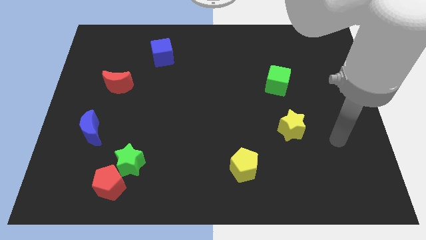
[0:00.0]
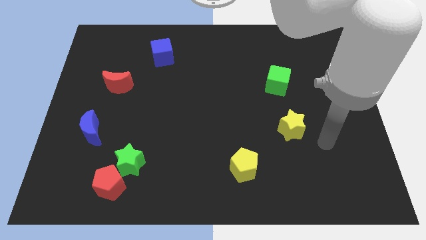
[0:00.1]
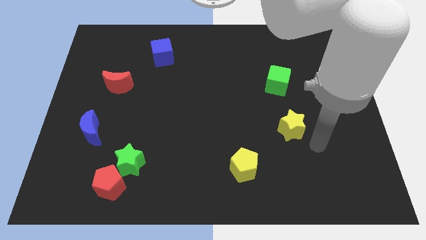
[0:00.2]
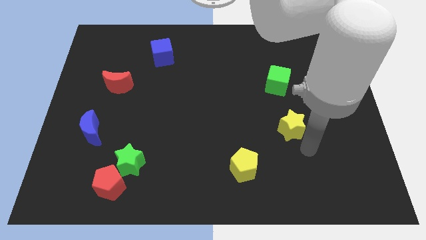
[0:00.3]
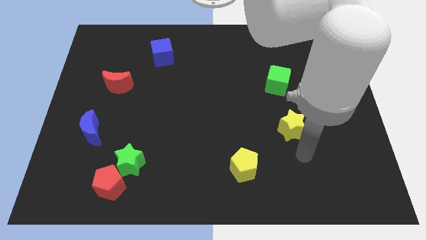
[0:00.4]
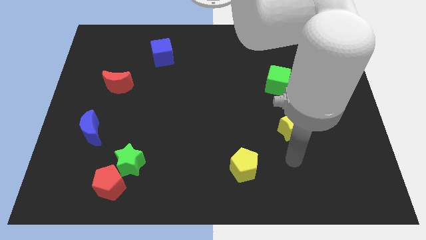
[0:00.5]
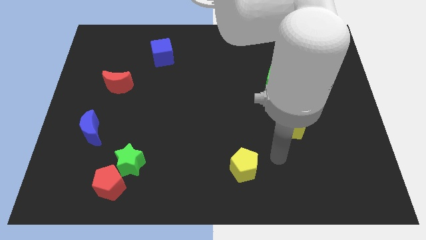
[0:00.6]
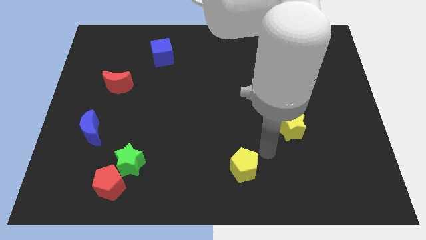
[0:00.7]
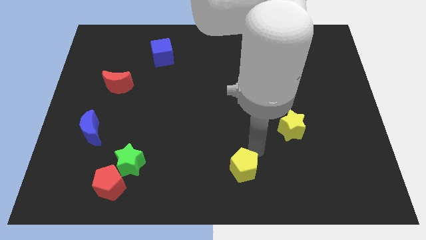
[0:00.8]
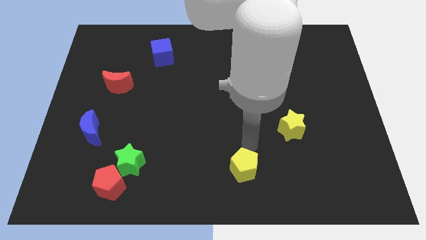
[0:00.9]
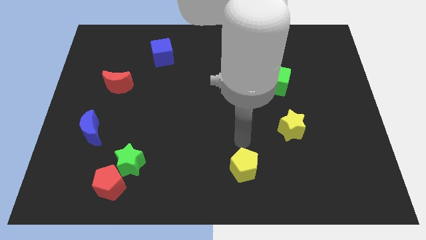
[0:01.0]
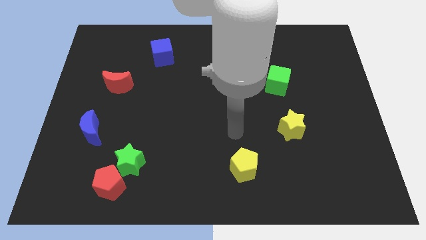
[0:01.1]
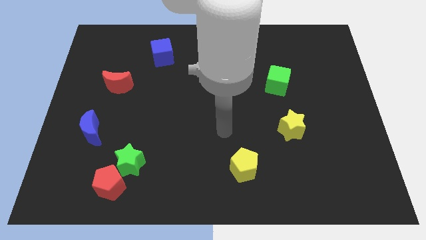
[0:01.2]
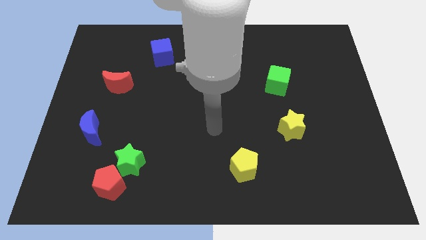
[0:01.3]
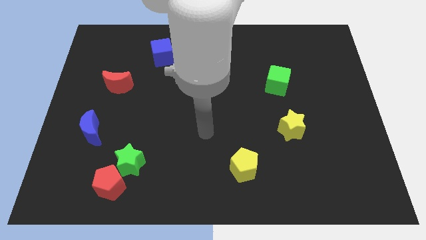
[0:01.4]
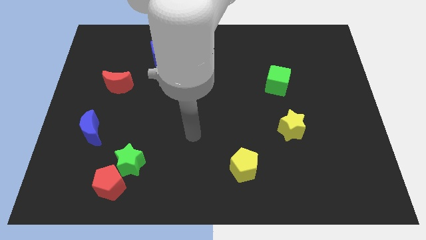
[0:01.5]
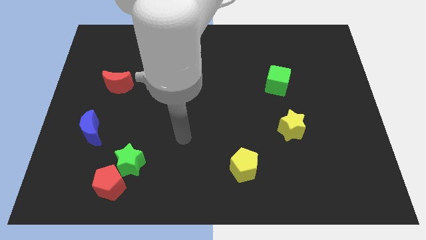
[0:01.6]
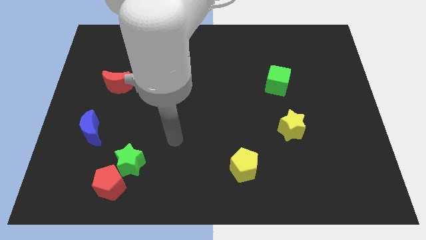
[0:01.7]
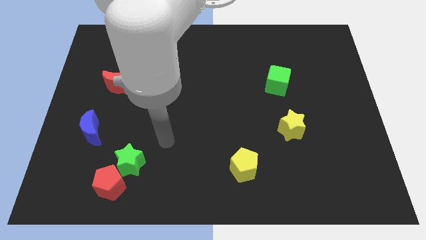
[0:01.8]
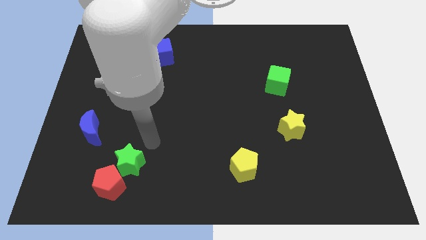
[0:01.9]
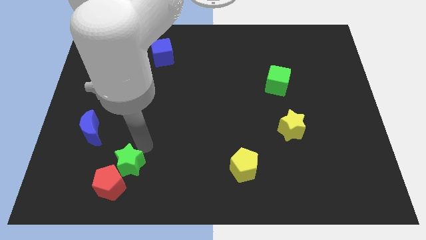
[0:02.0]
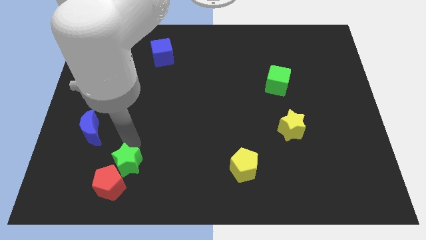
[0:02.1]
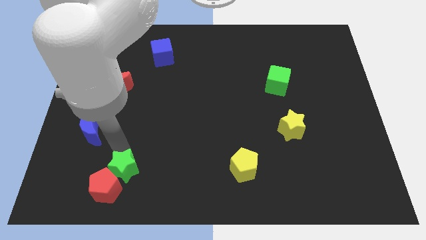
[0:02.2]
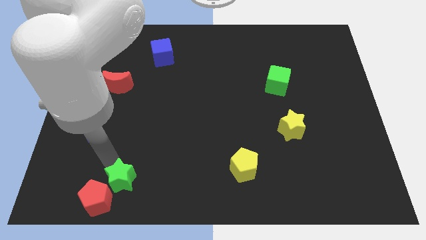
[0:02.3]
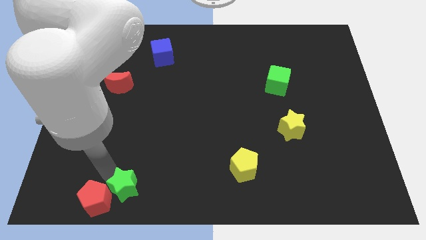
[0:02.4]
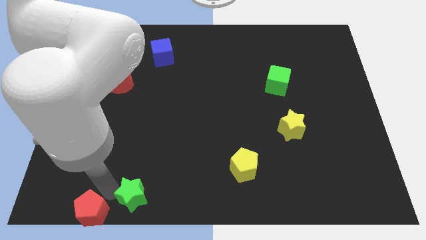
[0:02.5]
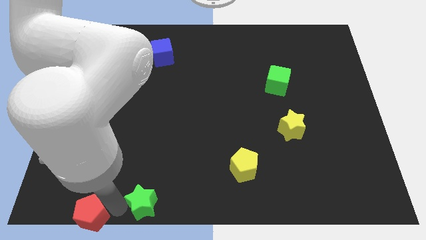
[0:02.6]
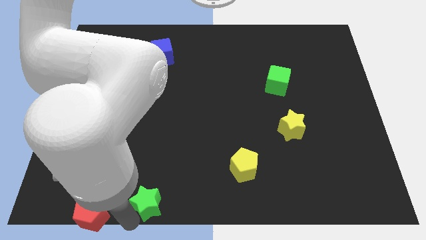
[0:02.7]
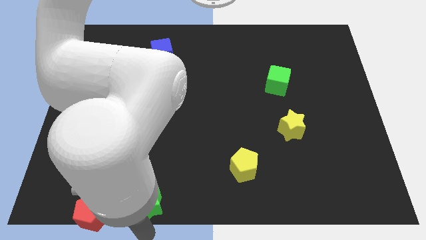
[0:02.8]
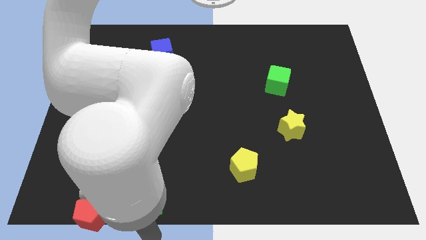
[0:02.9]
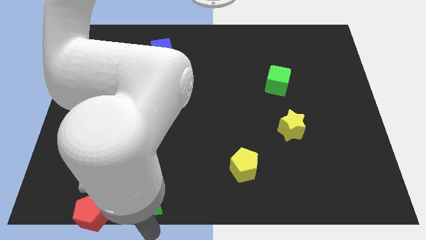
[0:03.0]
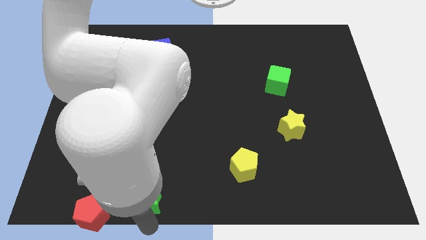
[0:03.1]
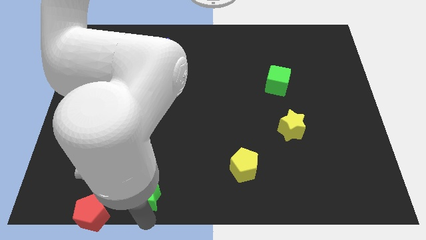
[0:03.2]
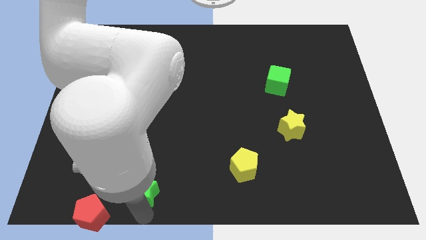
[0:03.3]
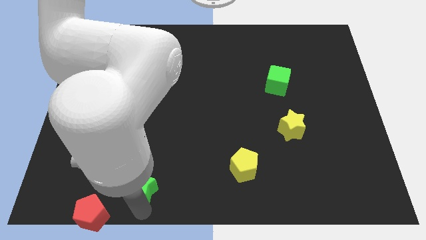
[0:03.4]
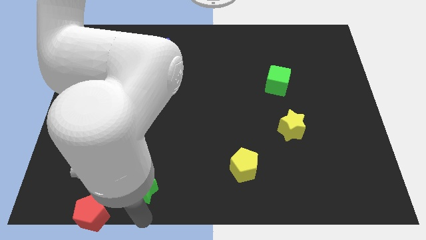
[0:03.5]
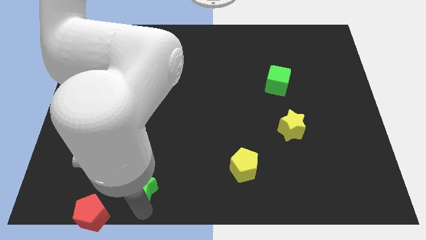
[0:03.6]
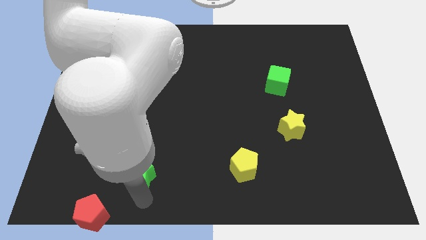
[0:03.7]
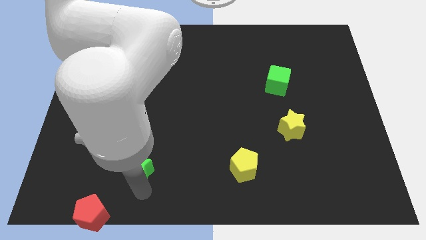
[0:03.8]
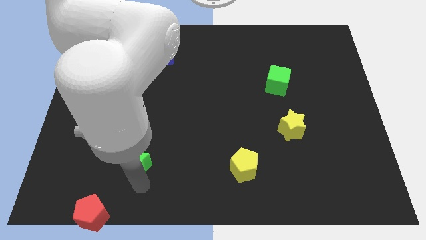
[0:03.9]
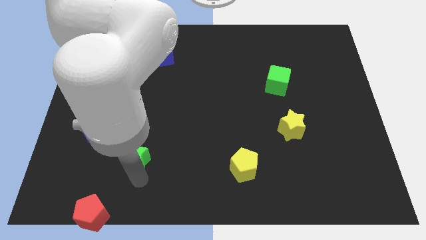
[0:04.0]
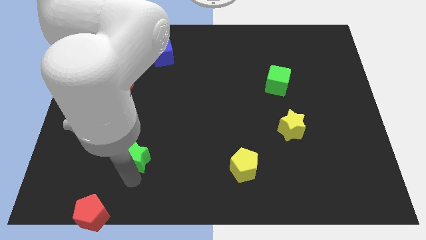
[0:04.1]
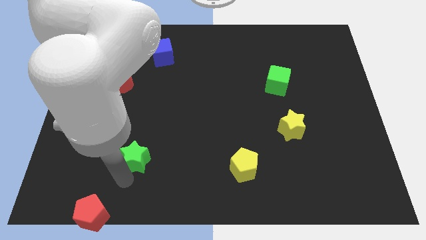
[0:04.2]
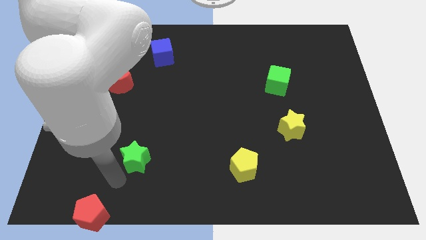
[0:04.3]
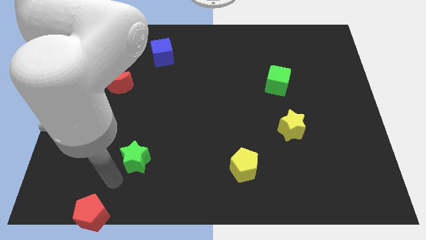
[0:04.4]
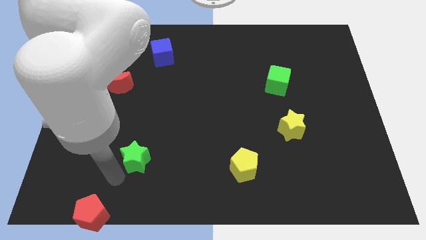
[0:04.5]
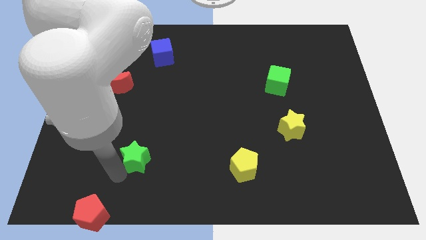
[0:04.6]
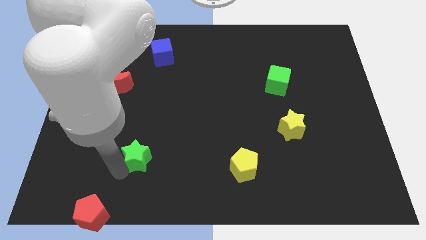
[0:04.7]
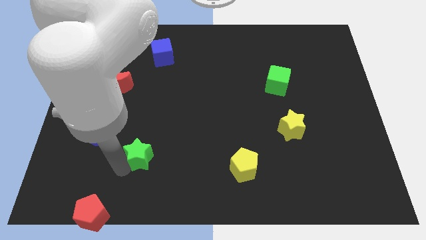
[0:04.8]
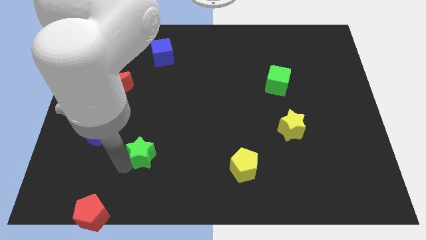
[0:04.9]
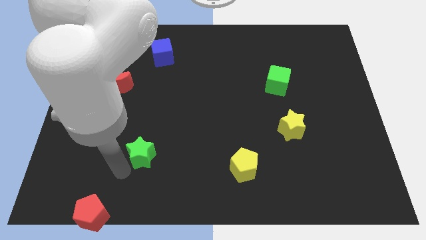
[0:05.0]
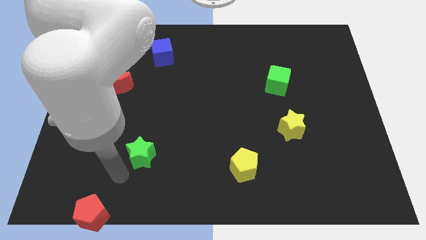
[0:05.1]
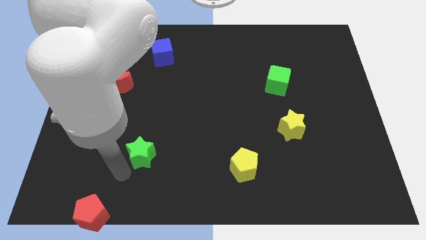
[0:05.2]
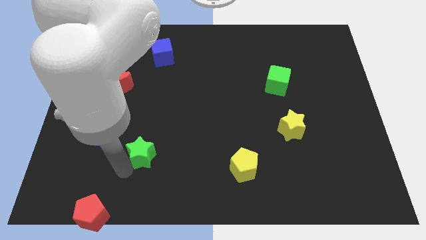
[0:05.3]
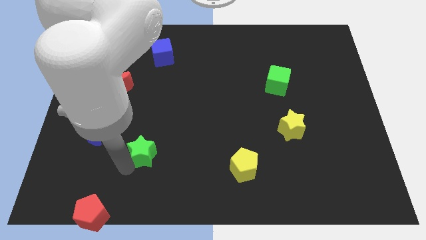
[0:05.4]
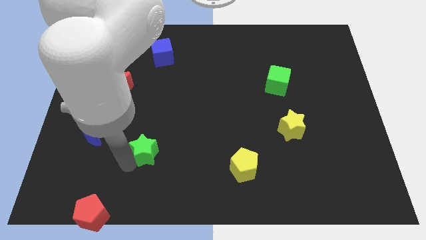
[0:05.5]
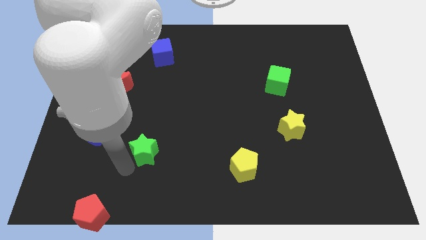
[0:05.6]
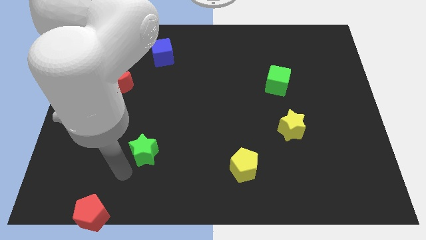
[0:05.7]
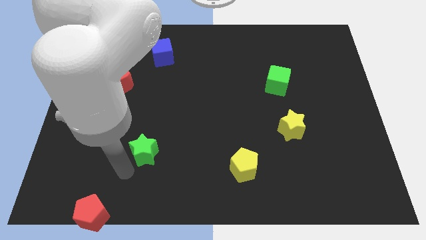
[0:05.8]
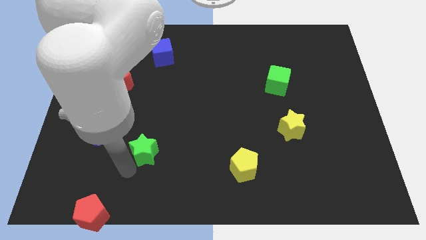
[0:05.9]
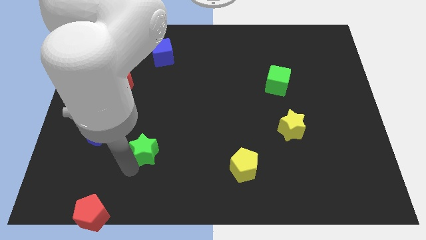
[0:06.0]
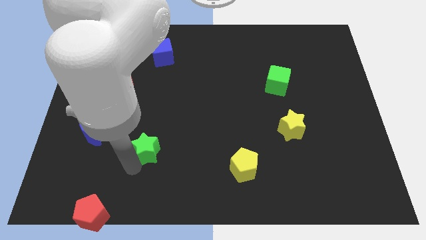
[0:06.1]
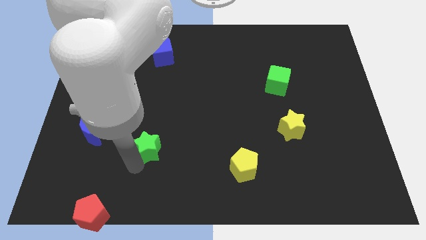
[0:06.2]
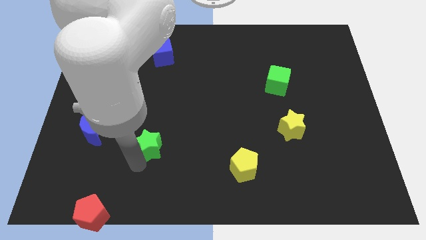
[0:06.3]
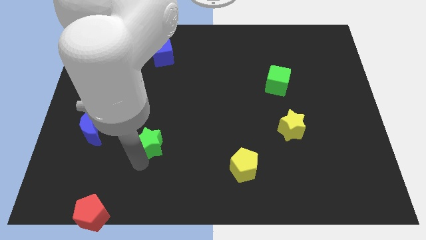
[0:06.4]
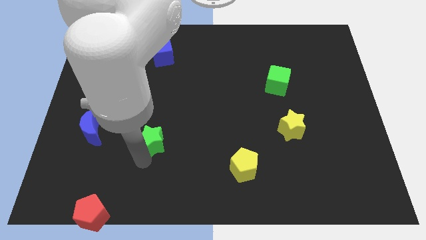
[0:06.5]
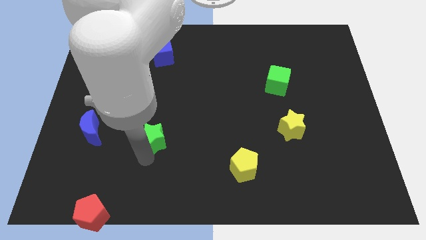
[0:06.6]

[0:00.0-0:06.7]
slide the green star upwards and right diagonally somewhat

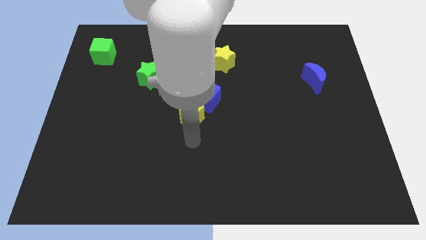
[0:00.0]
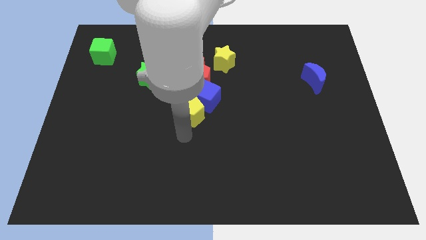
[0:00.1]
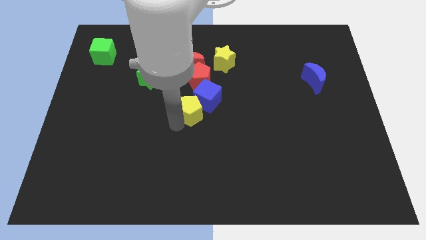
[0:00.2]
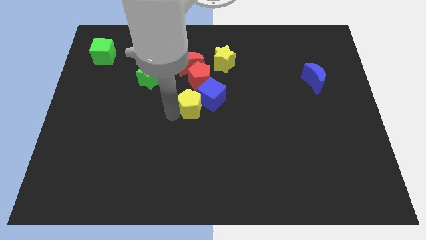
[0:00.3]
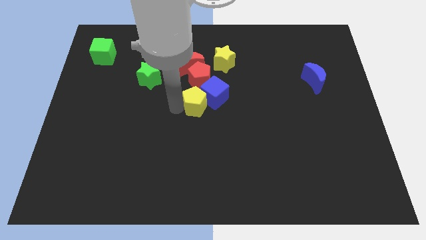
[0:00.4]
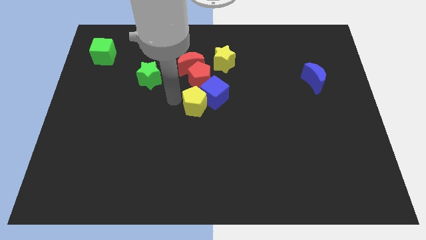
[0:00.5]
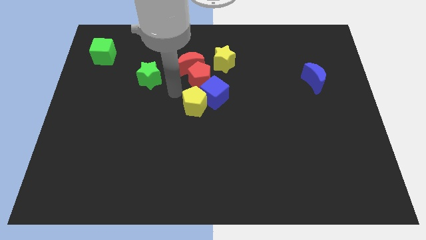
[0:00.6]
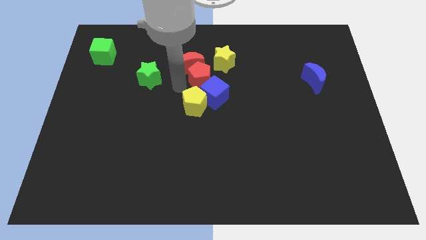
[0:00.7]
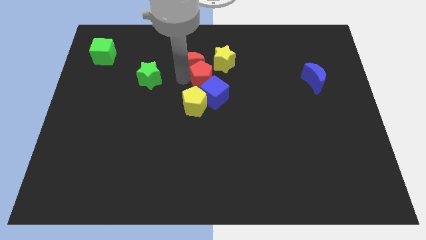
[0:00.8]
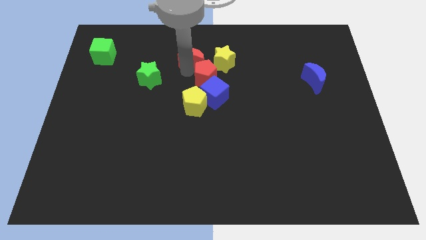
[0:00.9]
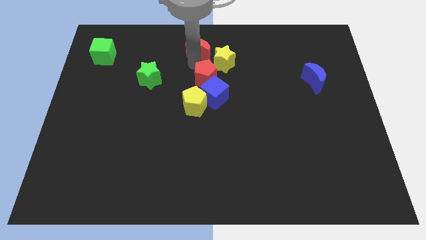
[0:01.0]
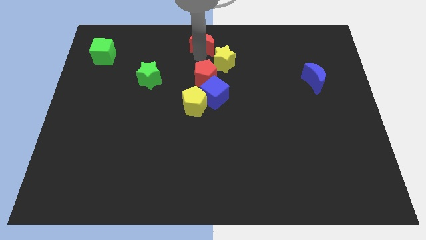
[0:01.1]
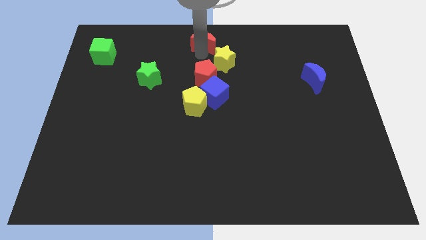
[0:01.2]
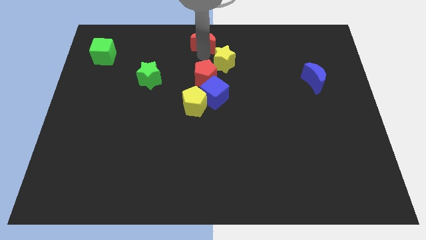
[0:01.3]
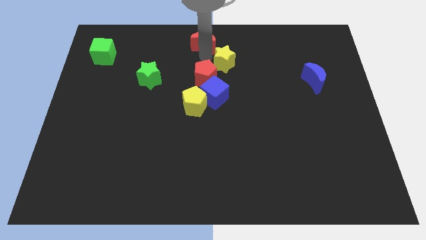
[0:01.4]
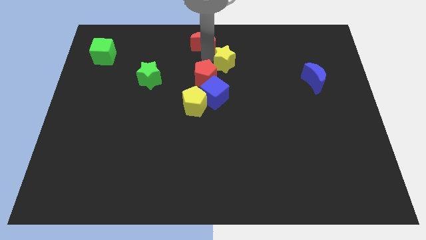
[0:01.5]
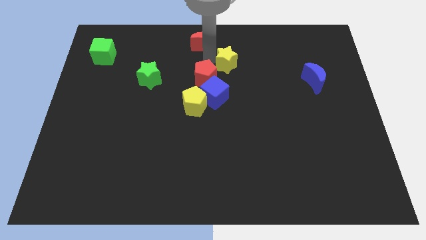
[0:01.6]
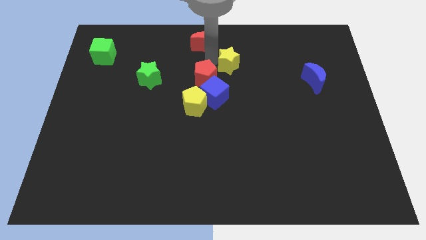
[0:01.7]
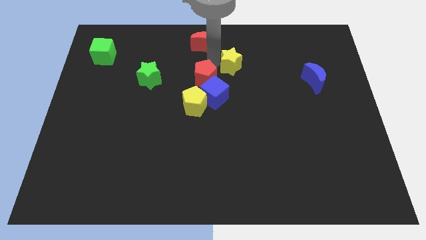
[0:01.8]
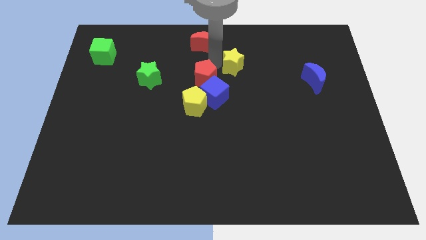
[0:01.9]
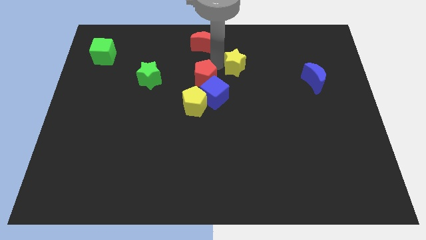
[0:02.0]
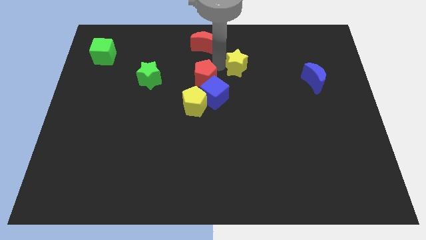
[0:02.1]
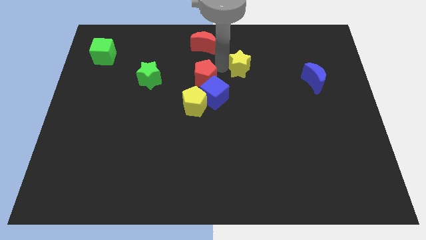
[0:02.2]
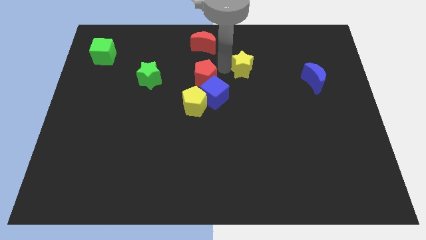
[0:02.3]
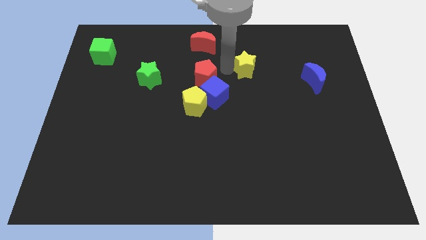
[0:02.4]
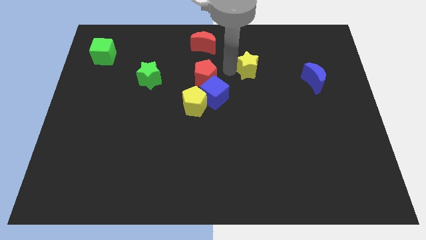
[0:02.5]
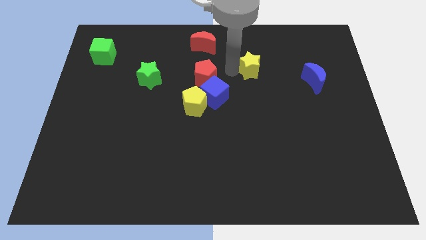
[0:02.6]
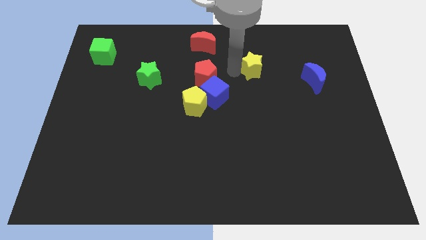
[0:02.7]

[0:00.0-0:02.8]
slightly push the yellow star to the right
